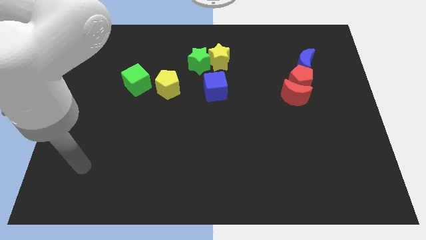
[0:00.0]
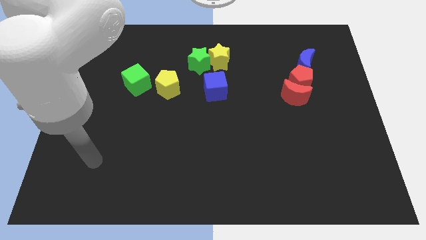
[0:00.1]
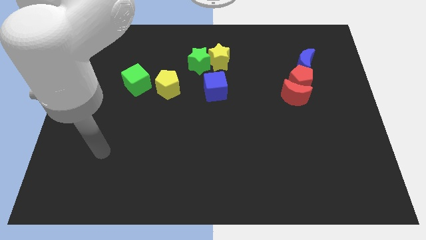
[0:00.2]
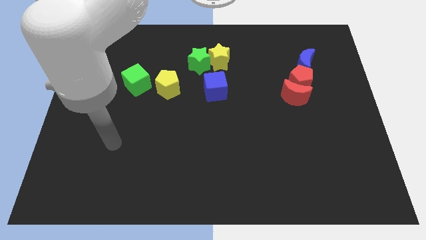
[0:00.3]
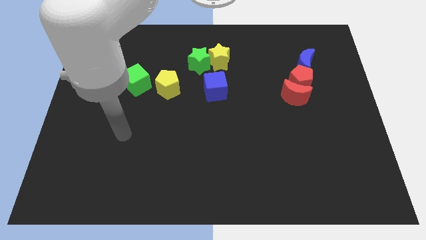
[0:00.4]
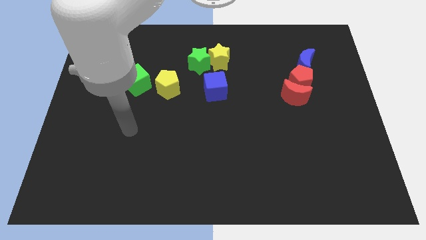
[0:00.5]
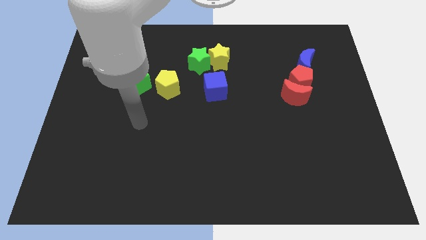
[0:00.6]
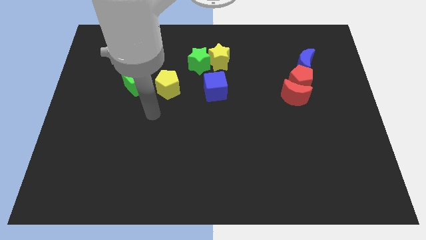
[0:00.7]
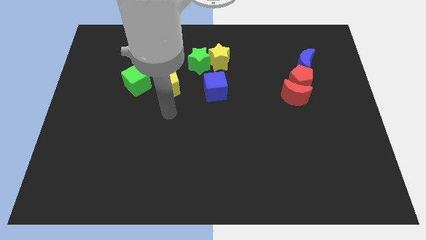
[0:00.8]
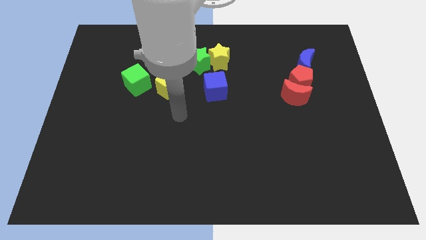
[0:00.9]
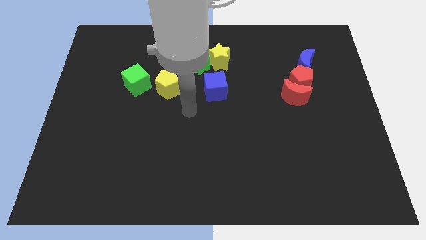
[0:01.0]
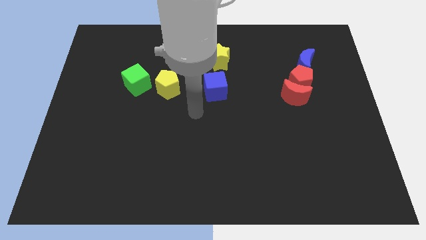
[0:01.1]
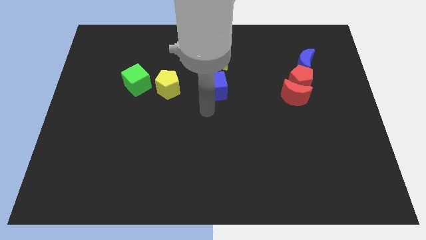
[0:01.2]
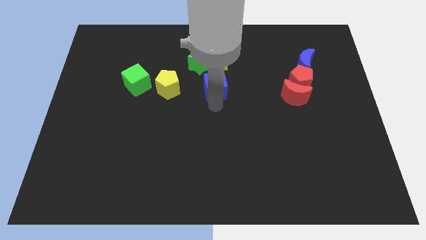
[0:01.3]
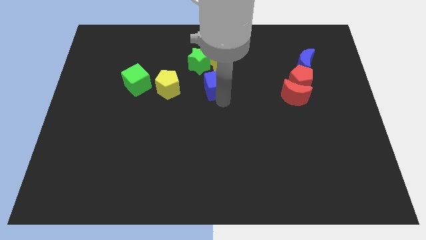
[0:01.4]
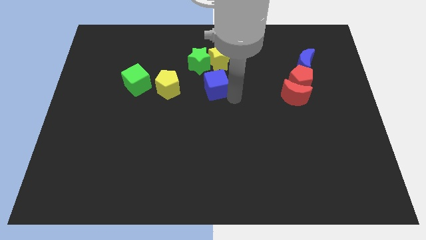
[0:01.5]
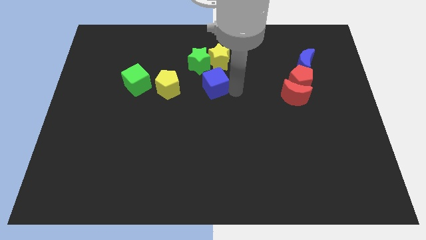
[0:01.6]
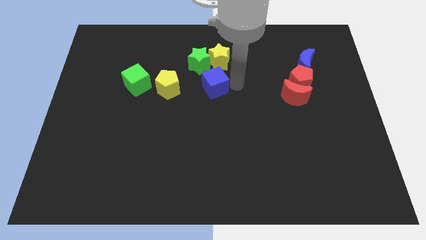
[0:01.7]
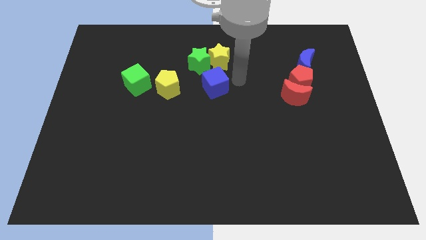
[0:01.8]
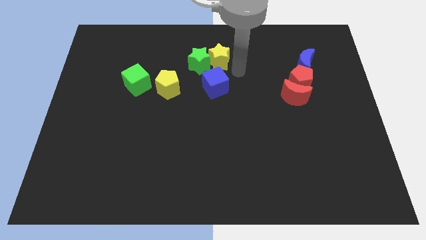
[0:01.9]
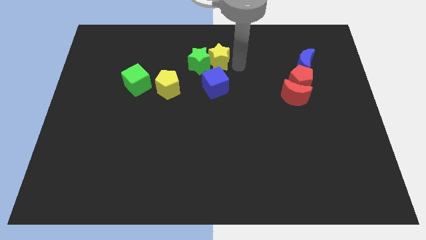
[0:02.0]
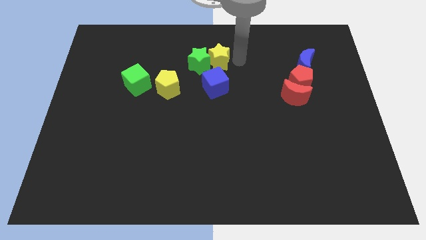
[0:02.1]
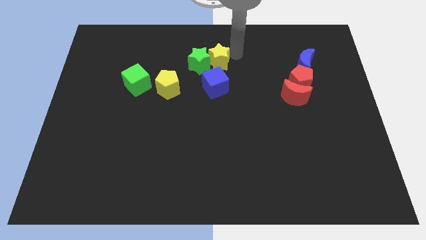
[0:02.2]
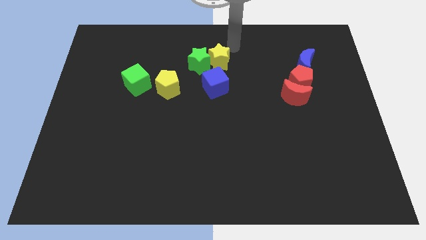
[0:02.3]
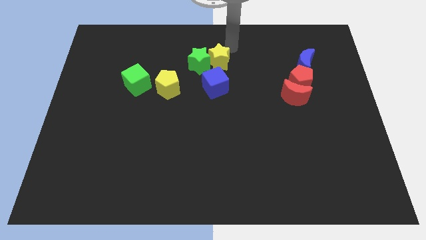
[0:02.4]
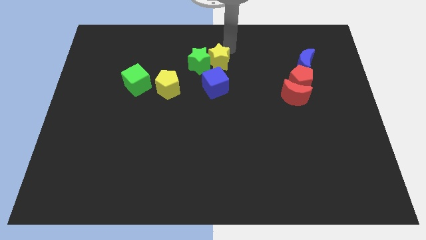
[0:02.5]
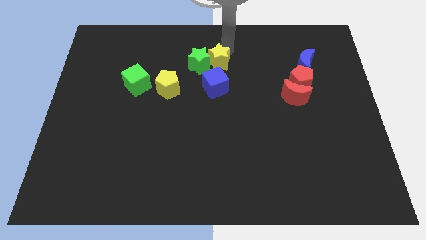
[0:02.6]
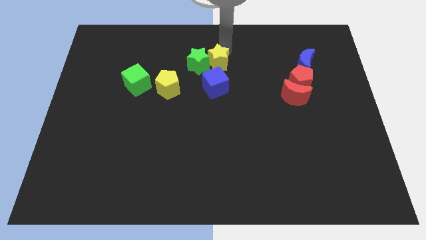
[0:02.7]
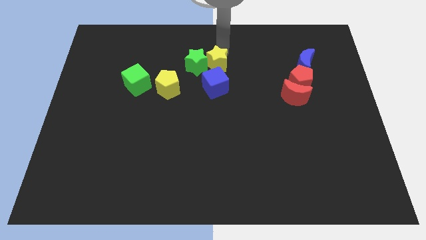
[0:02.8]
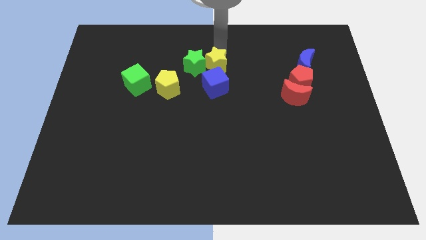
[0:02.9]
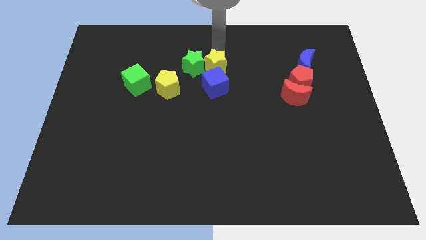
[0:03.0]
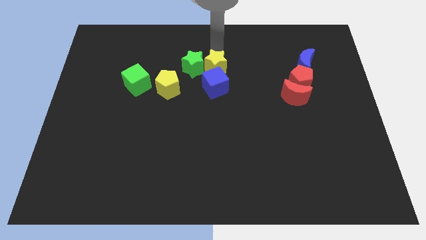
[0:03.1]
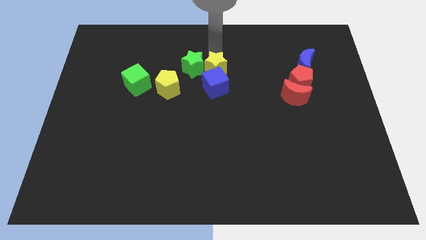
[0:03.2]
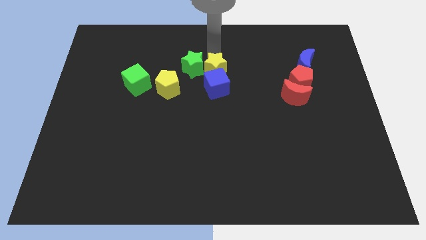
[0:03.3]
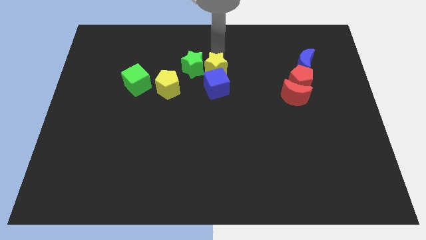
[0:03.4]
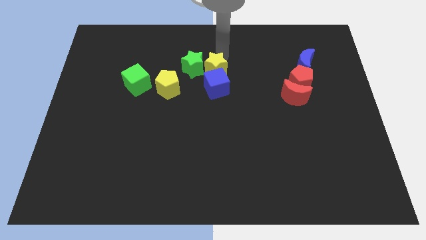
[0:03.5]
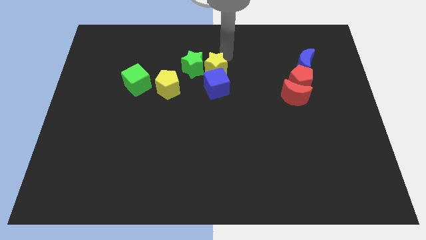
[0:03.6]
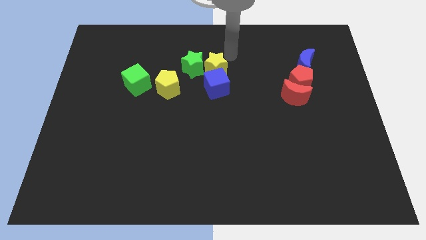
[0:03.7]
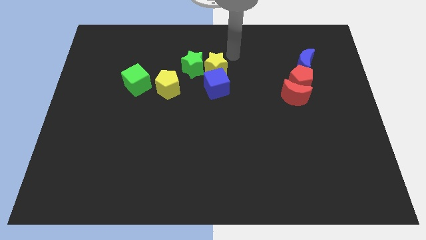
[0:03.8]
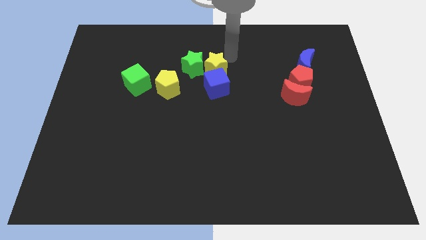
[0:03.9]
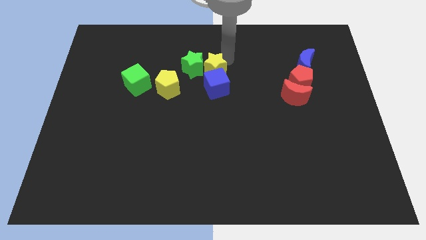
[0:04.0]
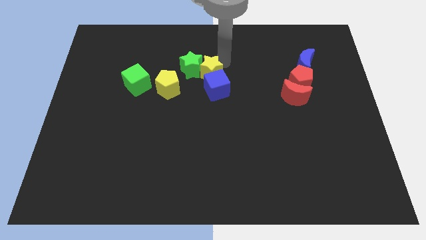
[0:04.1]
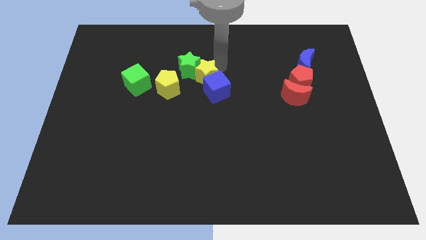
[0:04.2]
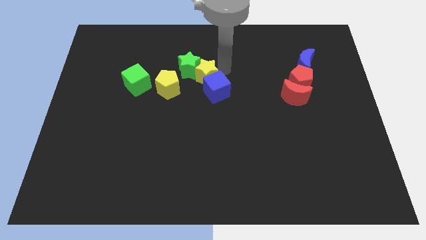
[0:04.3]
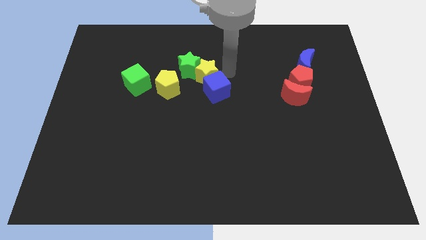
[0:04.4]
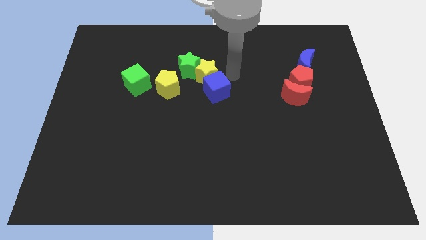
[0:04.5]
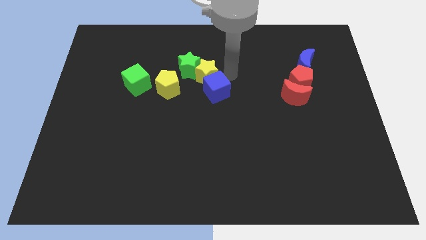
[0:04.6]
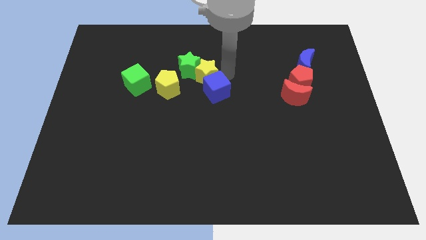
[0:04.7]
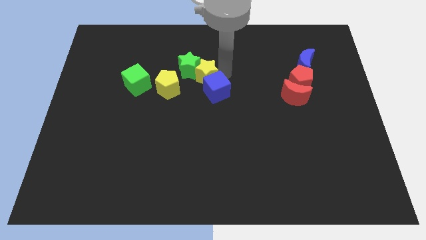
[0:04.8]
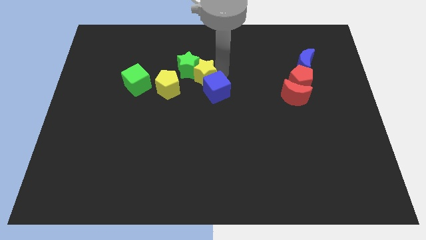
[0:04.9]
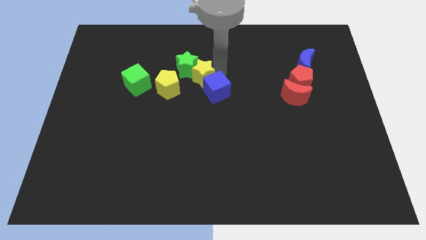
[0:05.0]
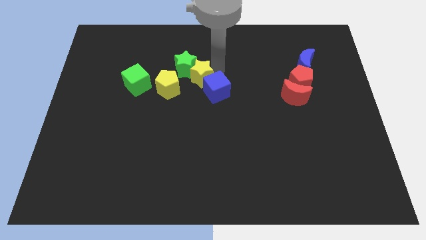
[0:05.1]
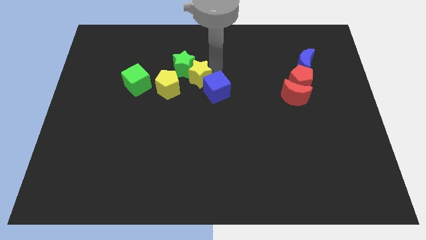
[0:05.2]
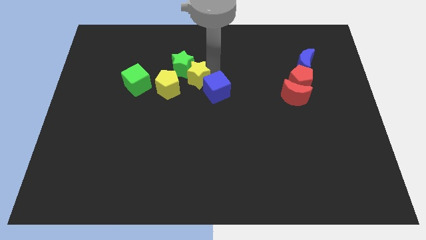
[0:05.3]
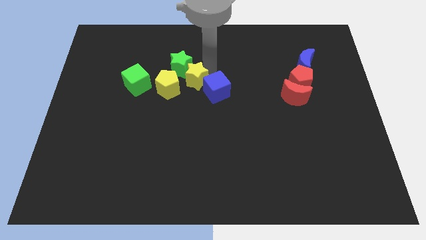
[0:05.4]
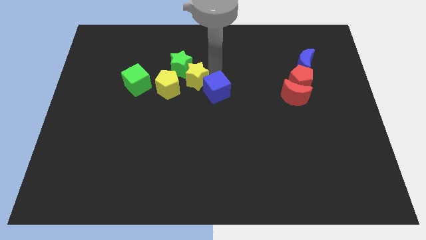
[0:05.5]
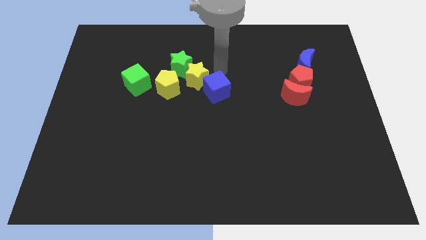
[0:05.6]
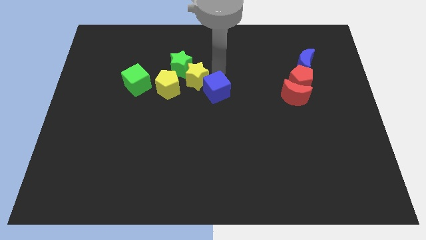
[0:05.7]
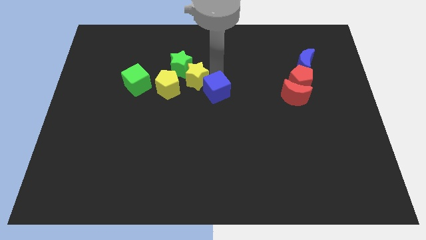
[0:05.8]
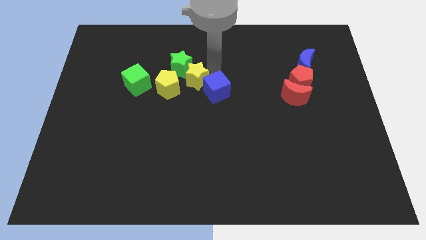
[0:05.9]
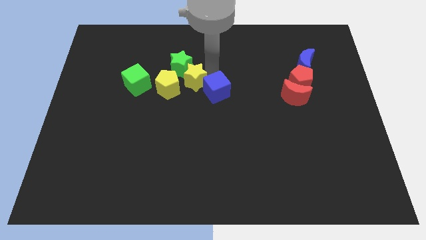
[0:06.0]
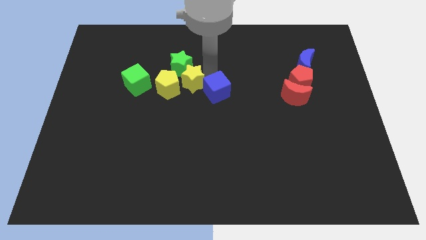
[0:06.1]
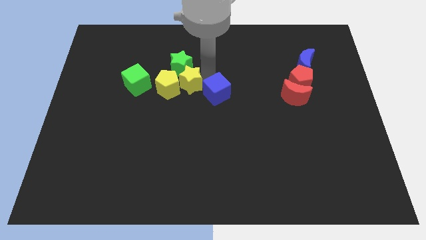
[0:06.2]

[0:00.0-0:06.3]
push the yellow star towards the yellow pentagon

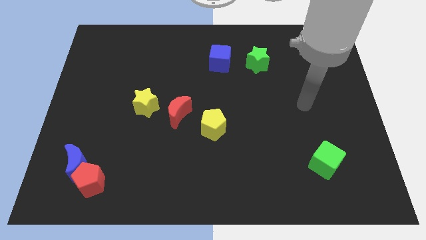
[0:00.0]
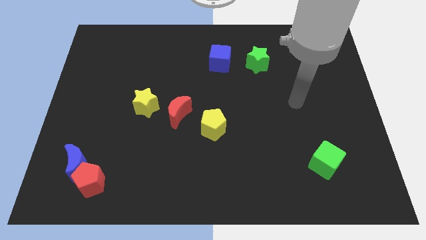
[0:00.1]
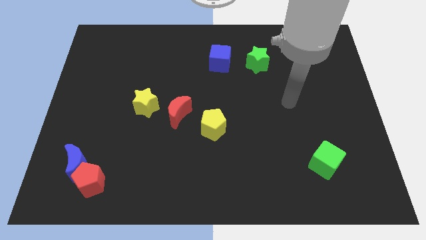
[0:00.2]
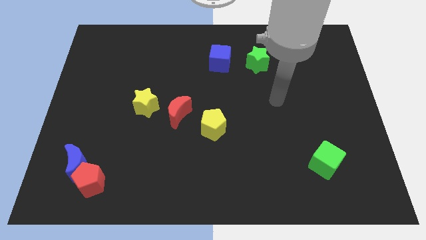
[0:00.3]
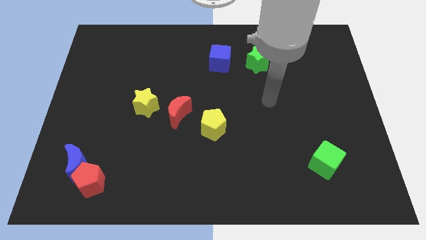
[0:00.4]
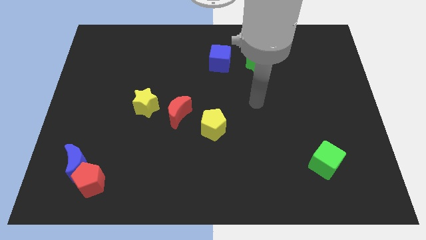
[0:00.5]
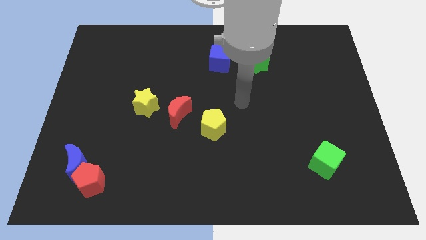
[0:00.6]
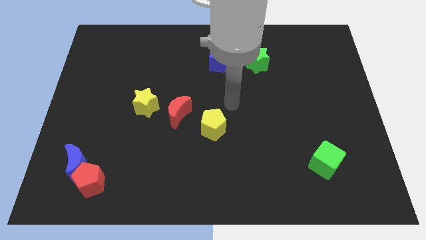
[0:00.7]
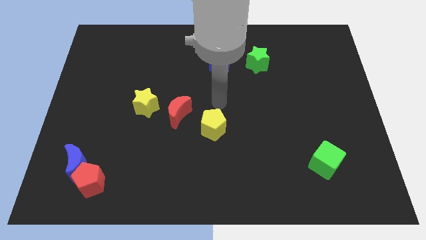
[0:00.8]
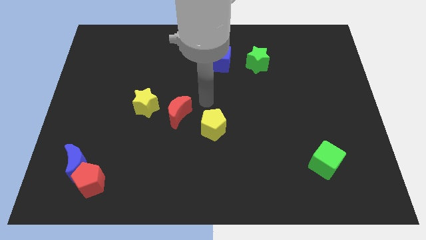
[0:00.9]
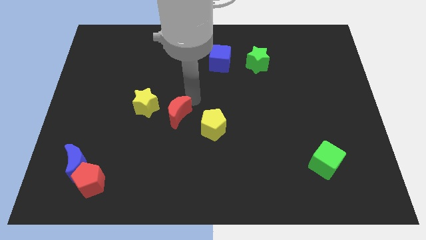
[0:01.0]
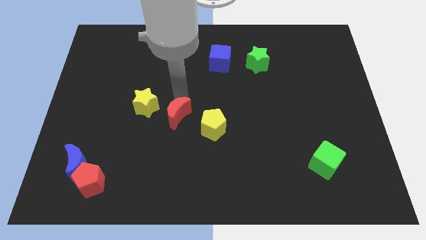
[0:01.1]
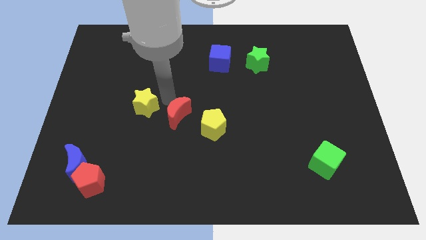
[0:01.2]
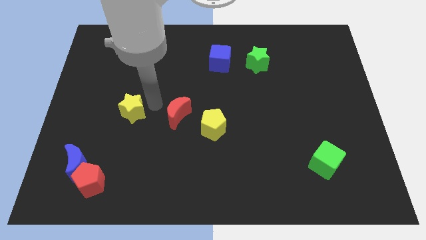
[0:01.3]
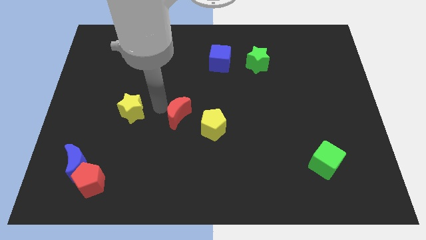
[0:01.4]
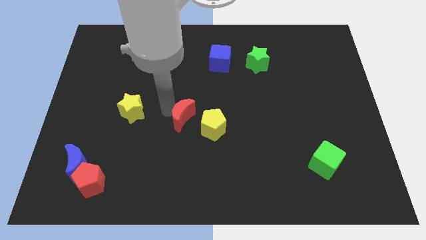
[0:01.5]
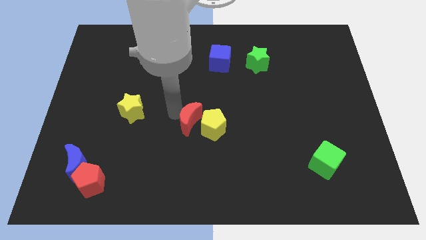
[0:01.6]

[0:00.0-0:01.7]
move the red moon close to the yellow pentagon
